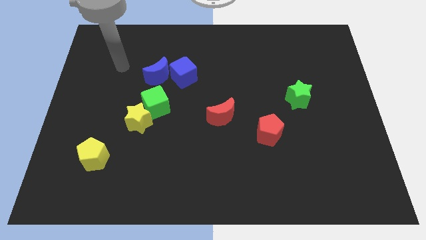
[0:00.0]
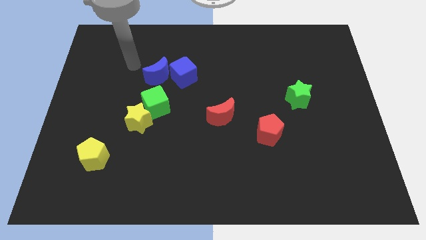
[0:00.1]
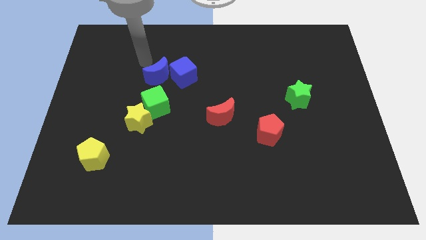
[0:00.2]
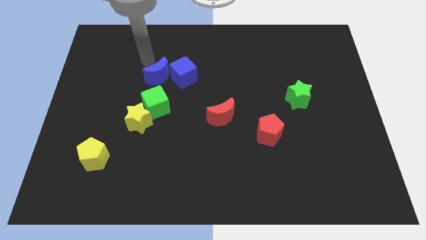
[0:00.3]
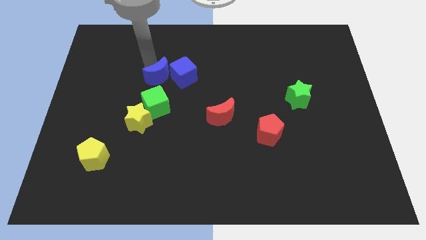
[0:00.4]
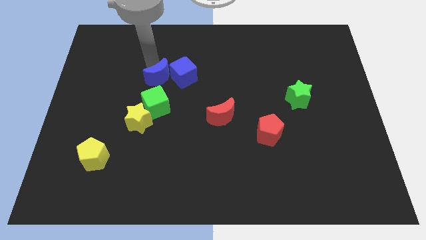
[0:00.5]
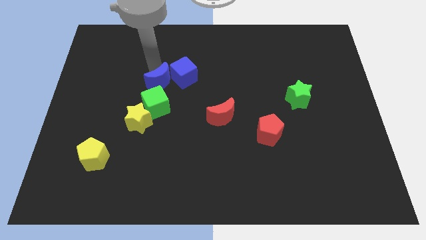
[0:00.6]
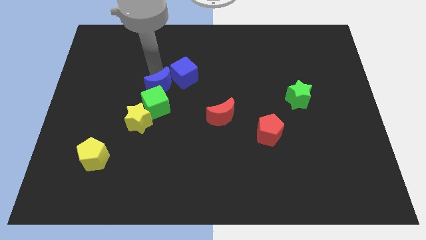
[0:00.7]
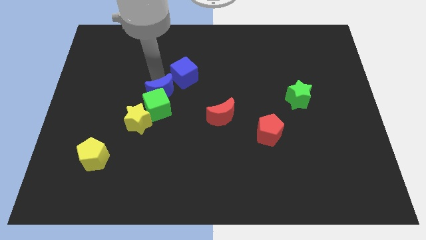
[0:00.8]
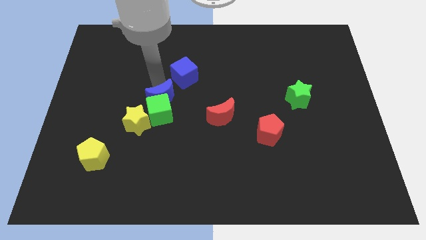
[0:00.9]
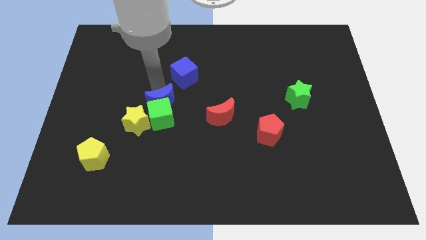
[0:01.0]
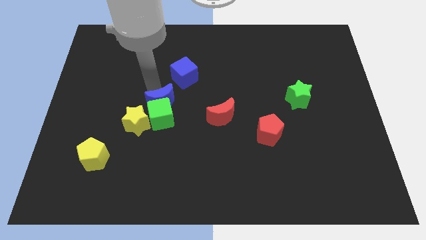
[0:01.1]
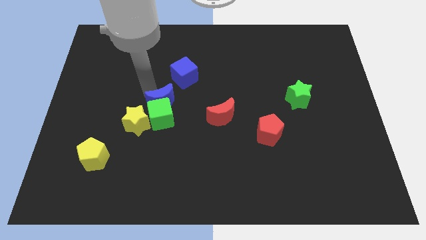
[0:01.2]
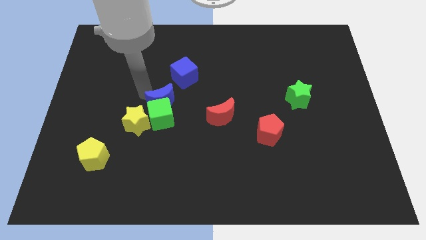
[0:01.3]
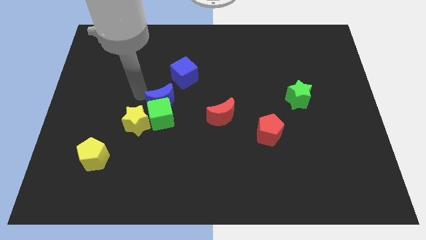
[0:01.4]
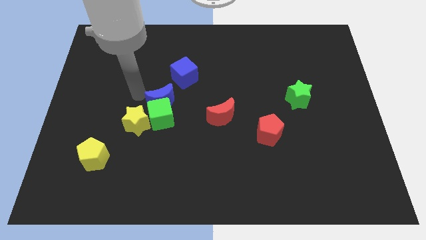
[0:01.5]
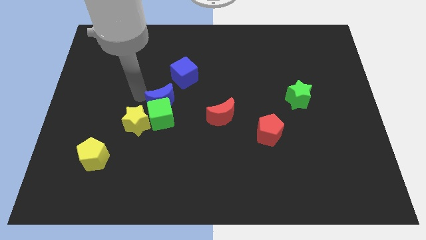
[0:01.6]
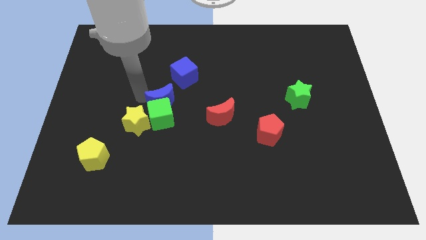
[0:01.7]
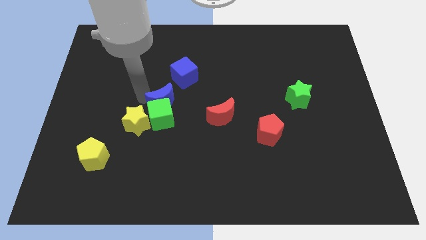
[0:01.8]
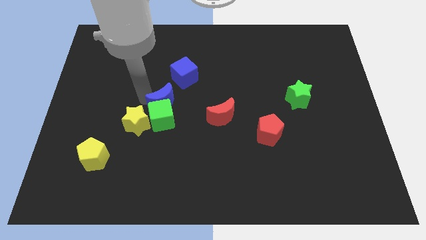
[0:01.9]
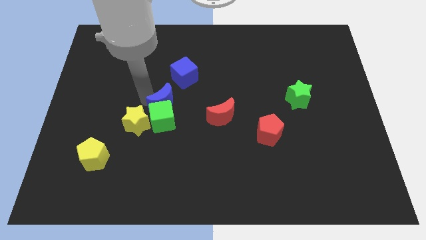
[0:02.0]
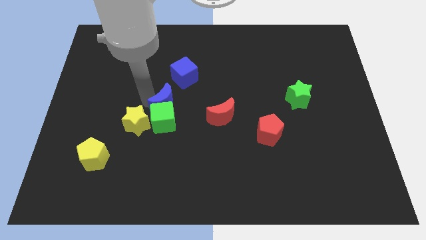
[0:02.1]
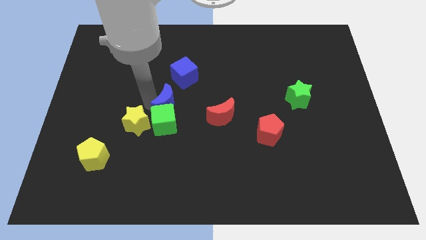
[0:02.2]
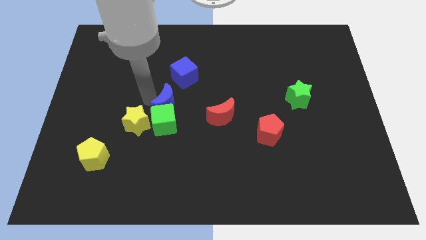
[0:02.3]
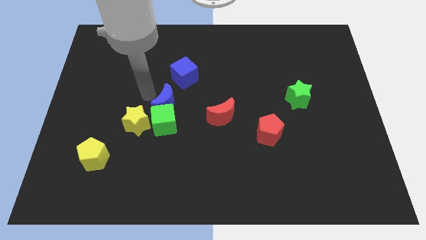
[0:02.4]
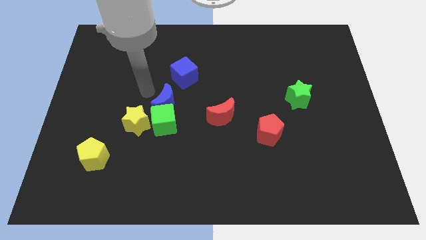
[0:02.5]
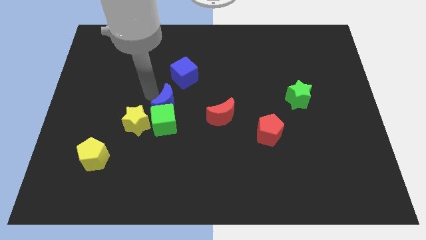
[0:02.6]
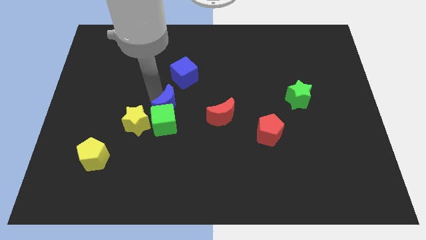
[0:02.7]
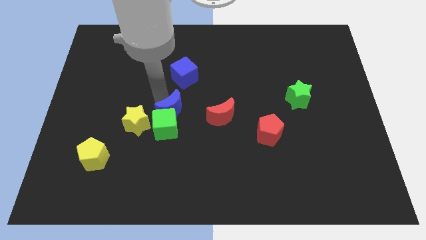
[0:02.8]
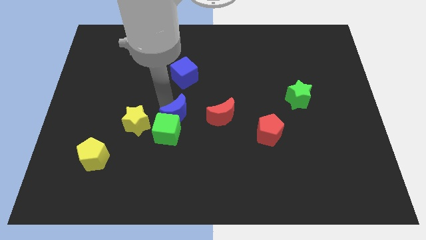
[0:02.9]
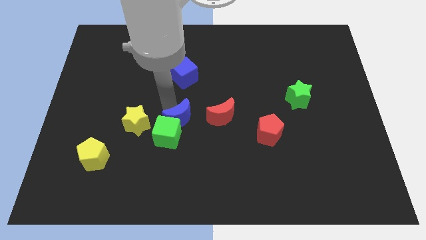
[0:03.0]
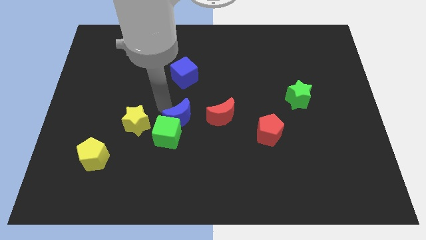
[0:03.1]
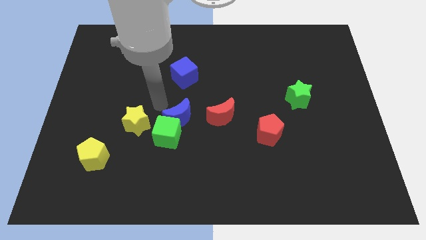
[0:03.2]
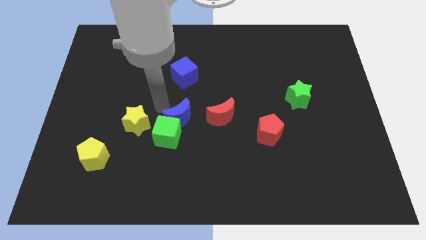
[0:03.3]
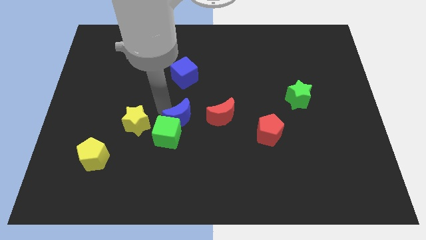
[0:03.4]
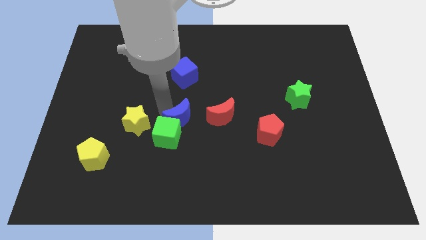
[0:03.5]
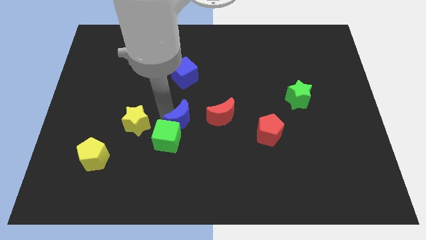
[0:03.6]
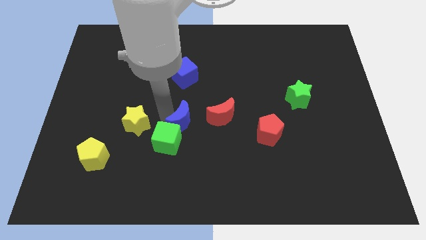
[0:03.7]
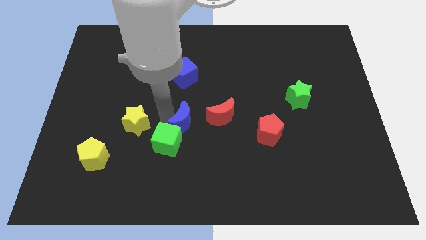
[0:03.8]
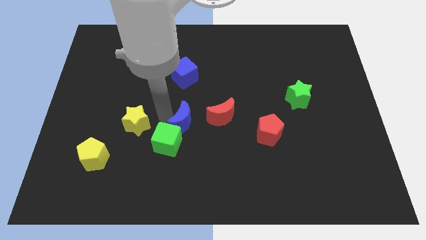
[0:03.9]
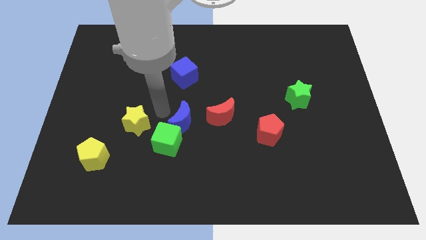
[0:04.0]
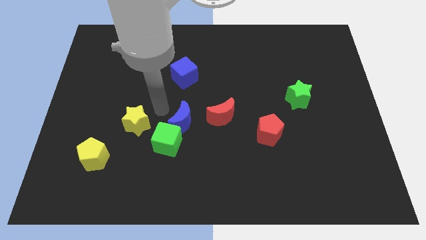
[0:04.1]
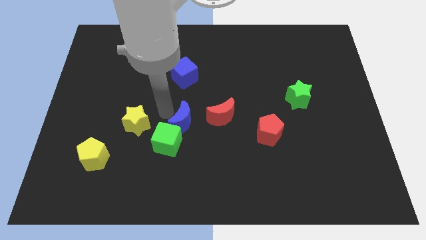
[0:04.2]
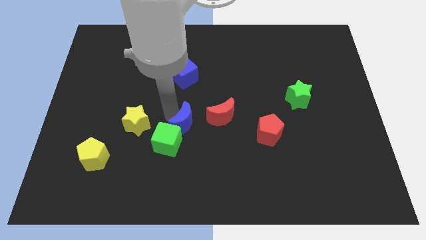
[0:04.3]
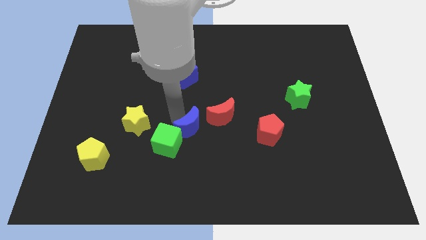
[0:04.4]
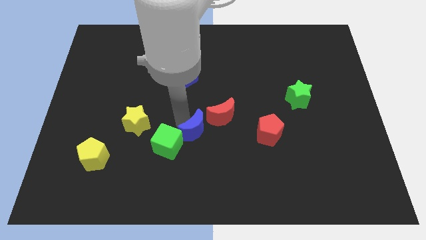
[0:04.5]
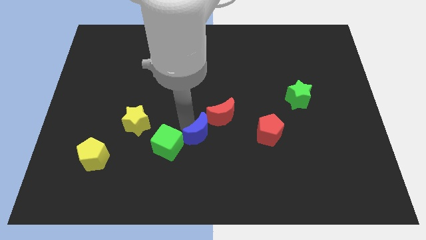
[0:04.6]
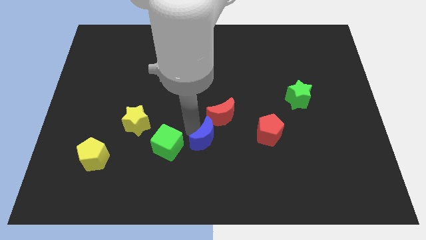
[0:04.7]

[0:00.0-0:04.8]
slide the blue moon down and to the right

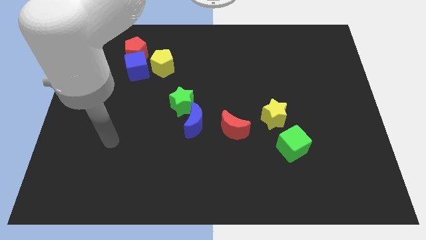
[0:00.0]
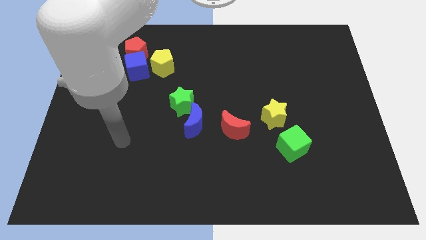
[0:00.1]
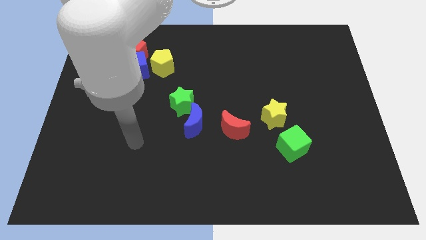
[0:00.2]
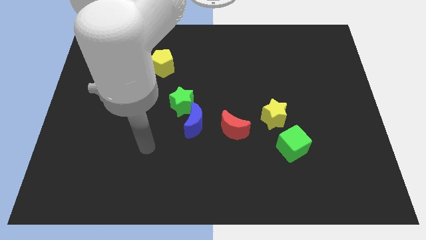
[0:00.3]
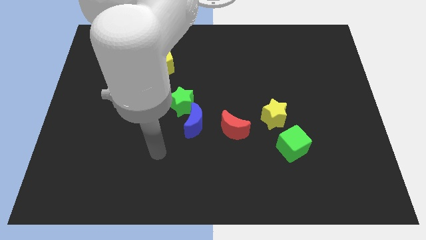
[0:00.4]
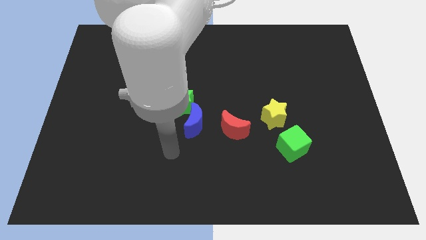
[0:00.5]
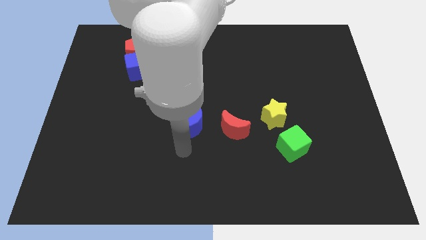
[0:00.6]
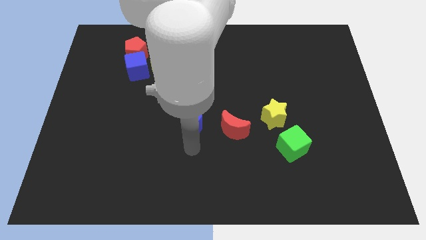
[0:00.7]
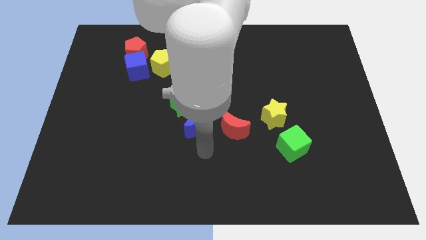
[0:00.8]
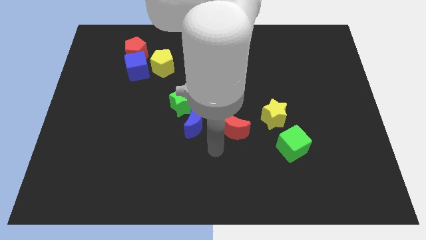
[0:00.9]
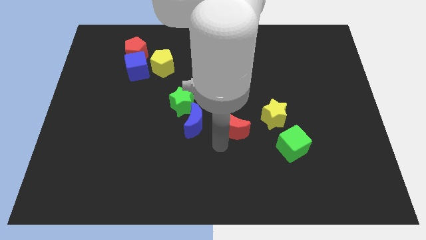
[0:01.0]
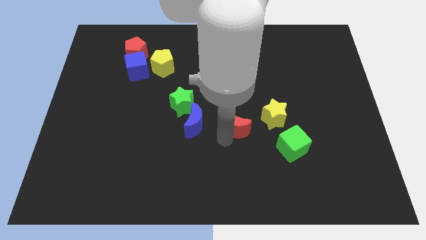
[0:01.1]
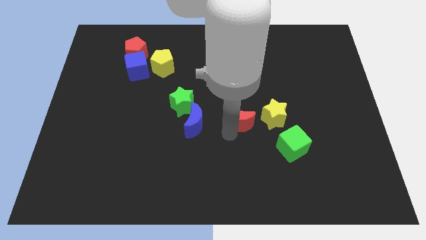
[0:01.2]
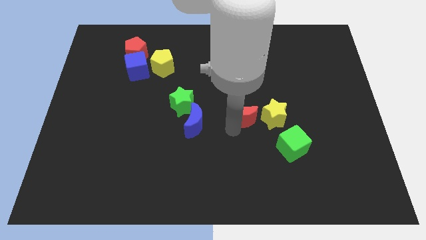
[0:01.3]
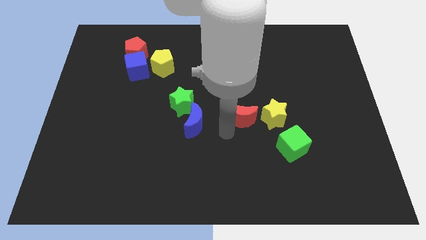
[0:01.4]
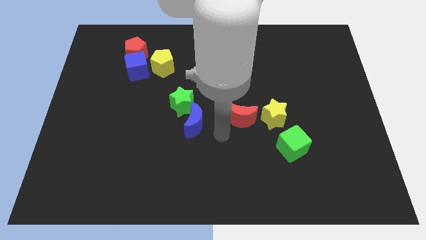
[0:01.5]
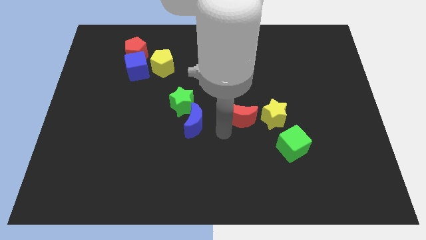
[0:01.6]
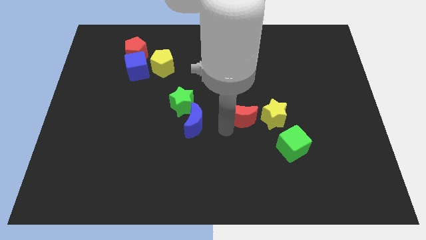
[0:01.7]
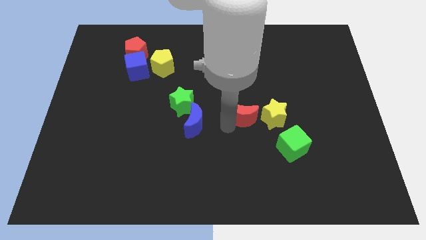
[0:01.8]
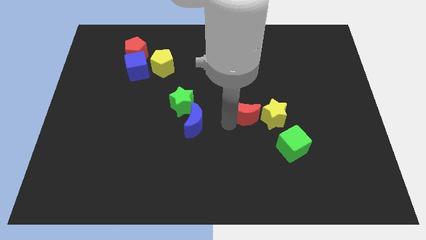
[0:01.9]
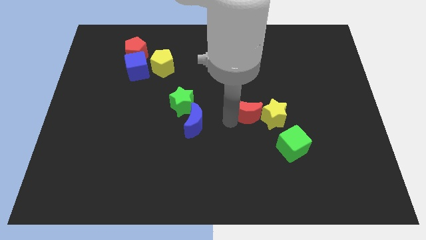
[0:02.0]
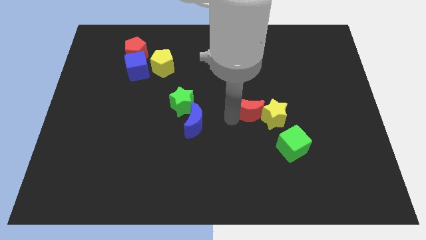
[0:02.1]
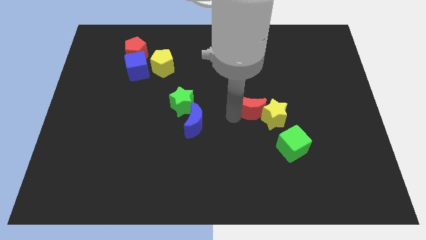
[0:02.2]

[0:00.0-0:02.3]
slightly move the red moon up and to the right

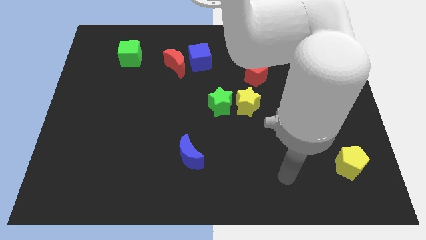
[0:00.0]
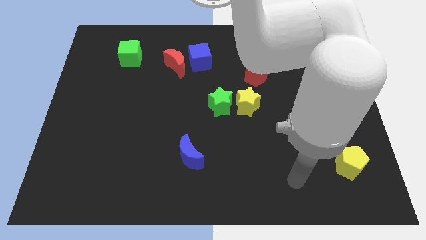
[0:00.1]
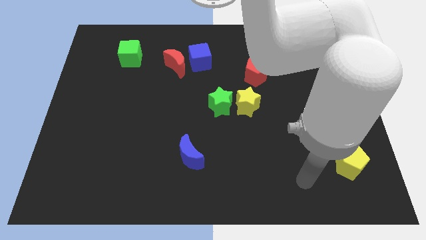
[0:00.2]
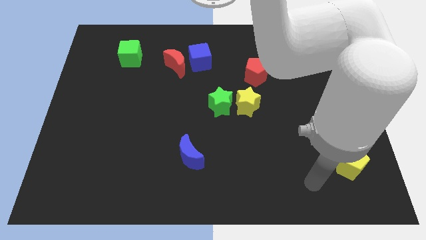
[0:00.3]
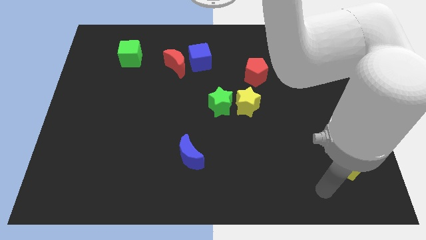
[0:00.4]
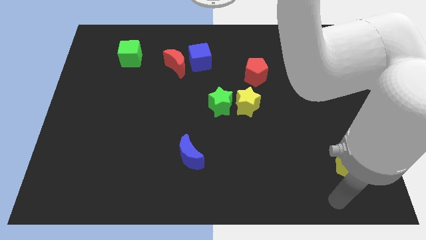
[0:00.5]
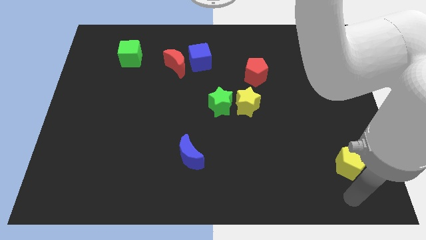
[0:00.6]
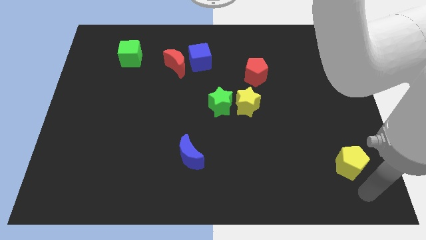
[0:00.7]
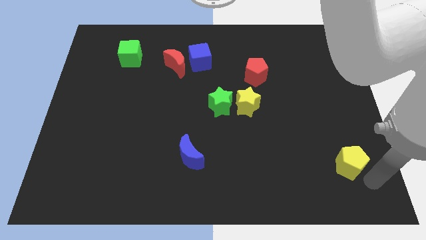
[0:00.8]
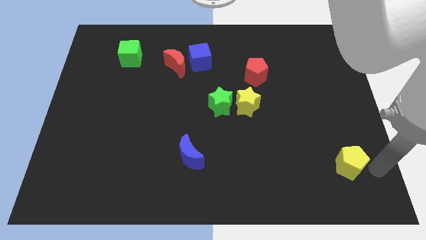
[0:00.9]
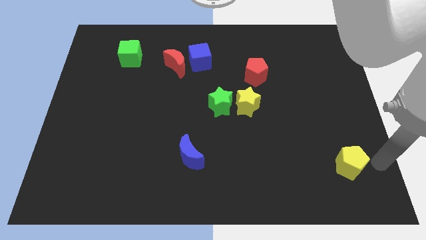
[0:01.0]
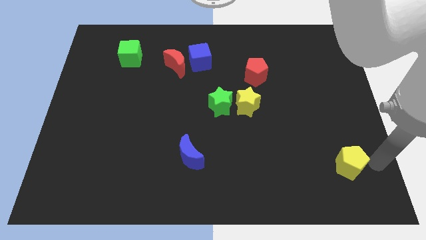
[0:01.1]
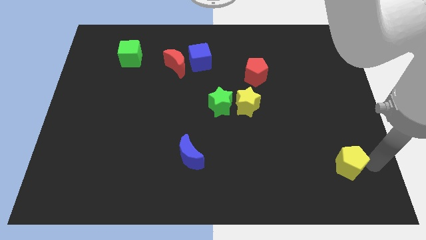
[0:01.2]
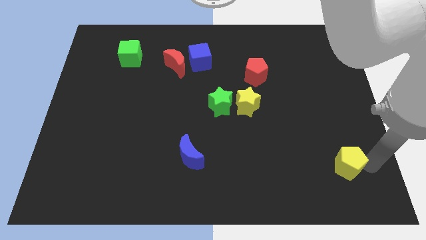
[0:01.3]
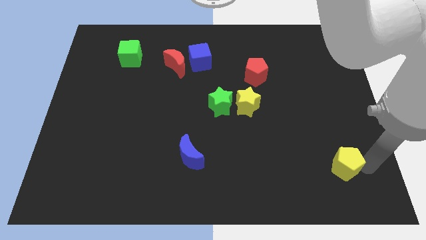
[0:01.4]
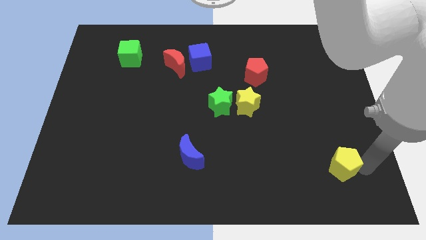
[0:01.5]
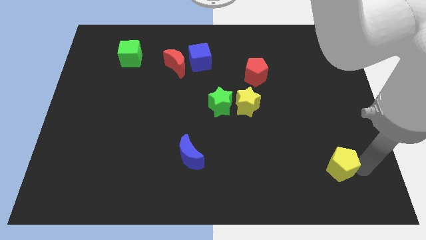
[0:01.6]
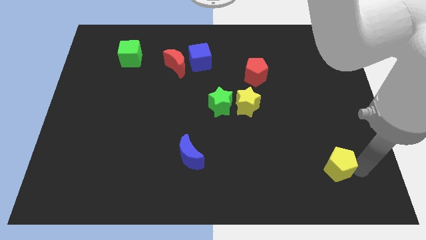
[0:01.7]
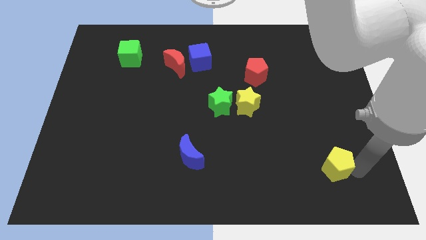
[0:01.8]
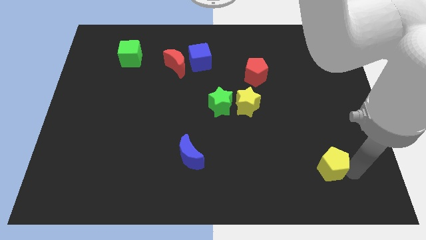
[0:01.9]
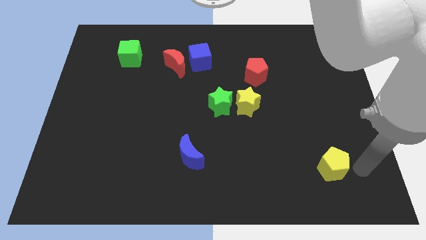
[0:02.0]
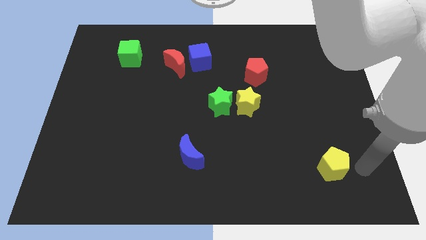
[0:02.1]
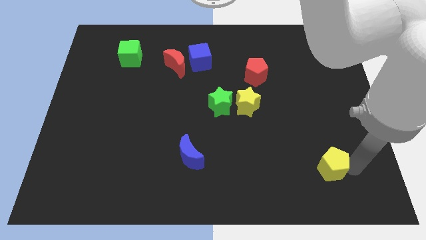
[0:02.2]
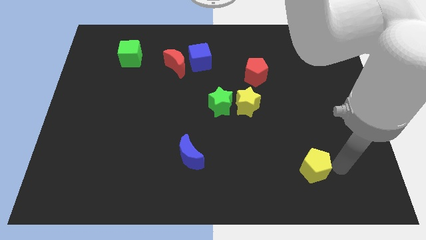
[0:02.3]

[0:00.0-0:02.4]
slide the yellow pentagon to the left a bit
